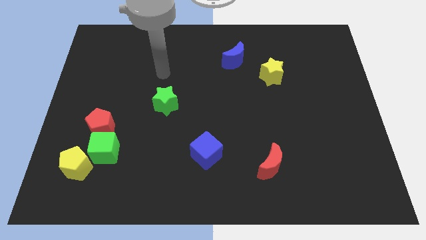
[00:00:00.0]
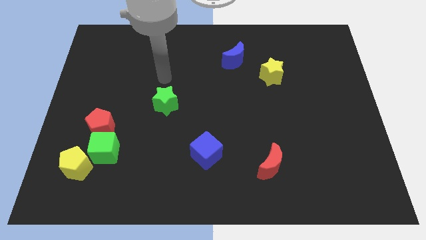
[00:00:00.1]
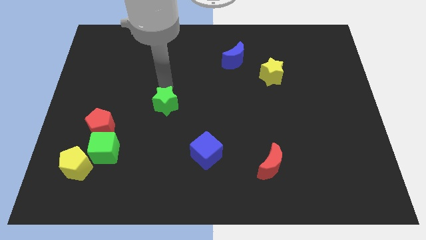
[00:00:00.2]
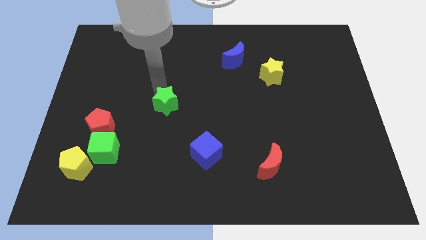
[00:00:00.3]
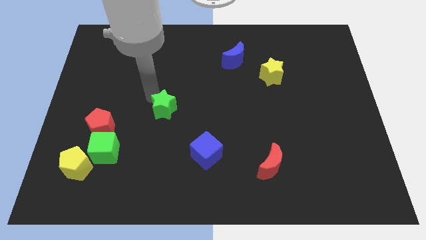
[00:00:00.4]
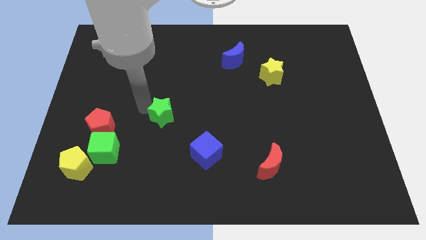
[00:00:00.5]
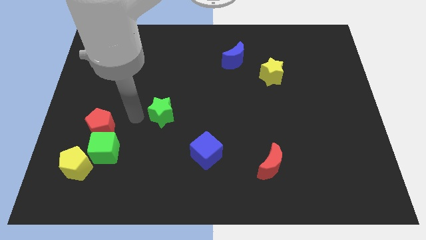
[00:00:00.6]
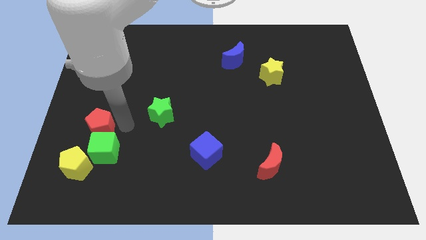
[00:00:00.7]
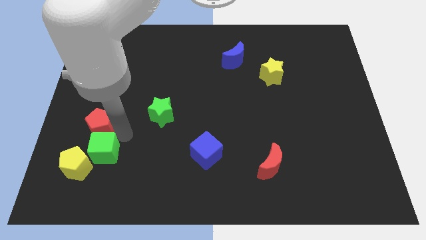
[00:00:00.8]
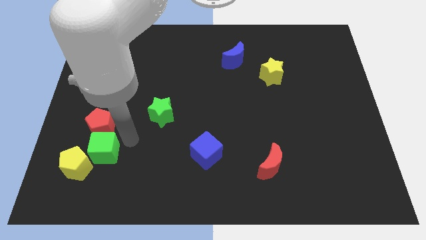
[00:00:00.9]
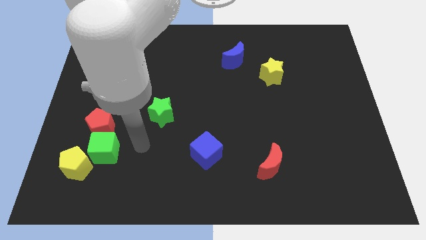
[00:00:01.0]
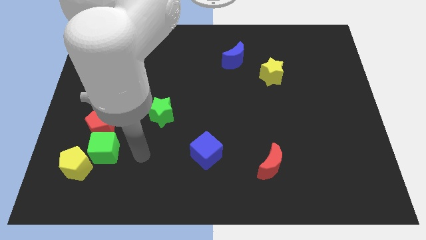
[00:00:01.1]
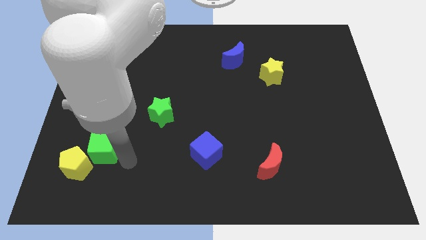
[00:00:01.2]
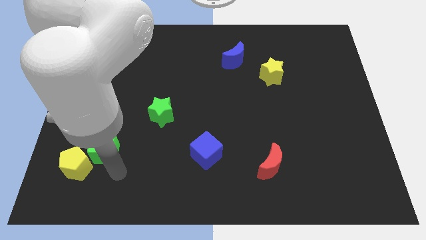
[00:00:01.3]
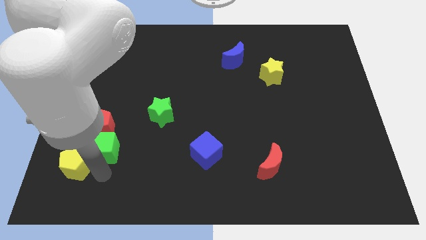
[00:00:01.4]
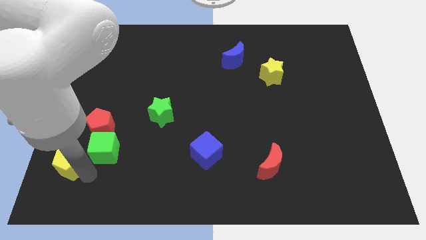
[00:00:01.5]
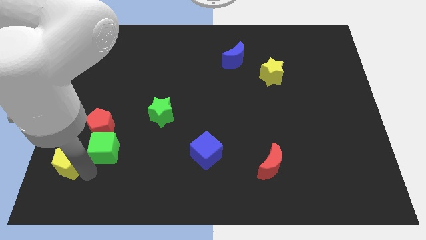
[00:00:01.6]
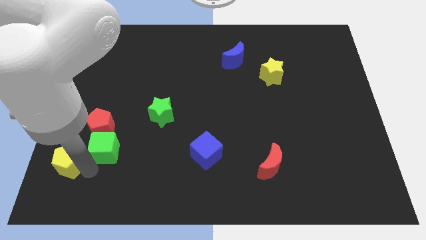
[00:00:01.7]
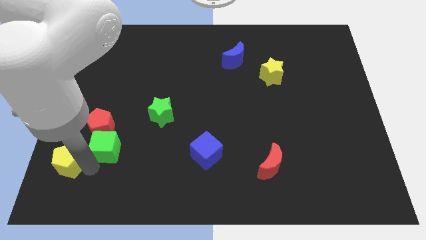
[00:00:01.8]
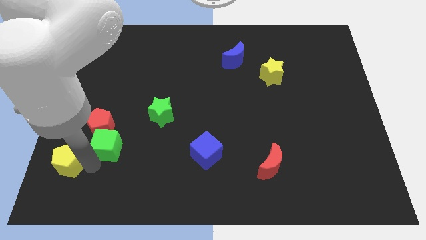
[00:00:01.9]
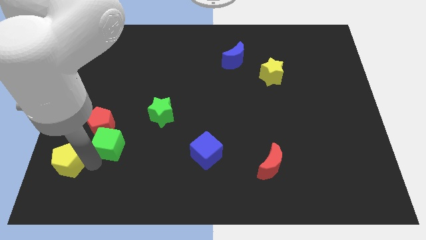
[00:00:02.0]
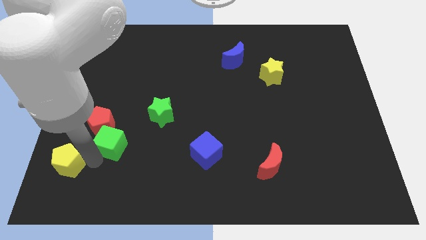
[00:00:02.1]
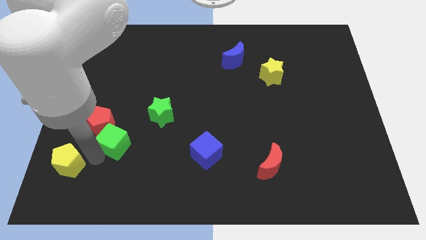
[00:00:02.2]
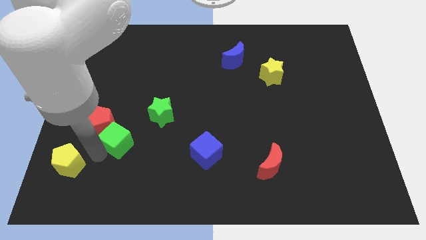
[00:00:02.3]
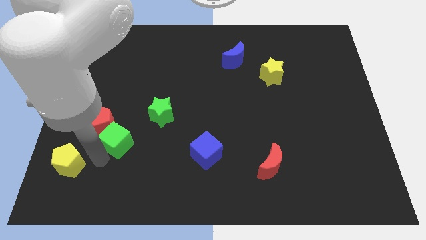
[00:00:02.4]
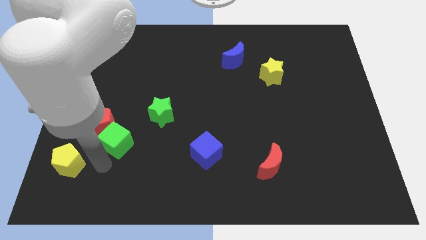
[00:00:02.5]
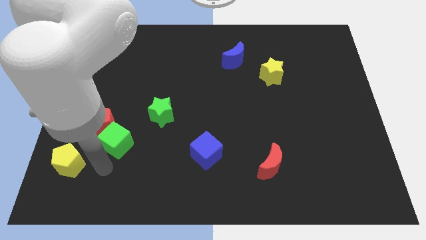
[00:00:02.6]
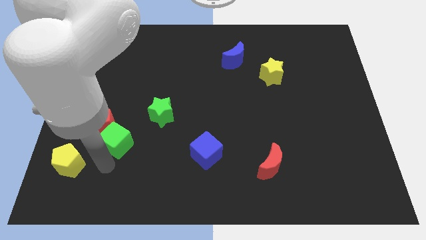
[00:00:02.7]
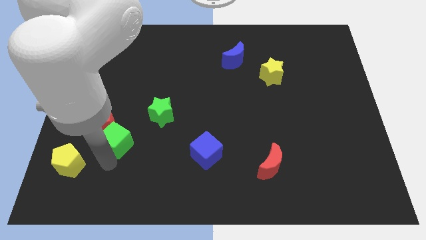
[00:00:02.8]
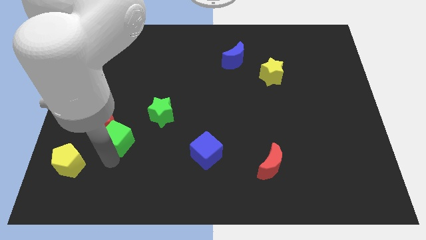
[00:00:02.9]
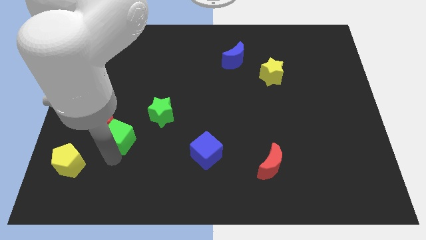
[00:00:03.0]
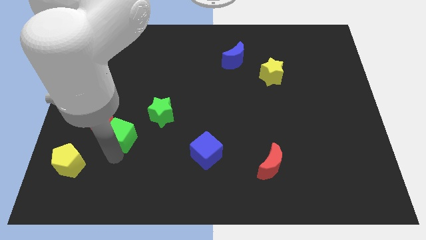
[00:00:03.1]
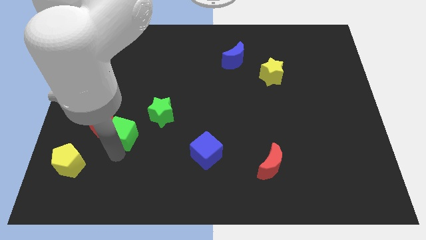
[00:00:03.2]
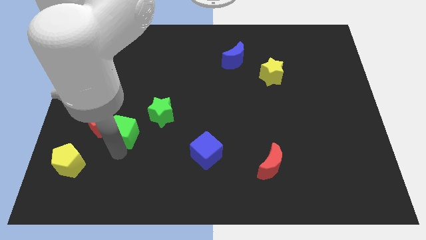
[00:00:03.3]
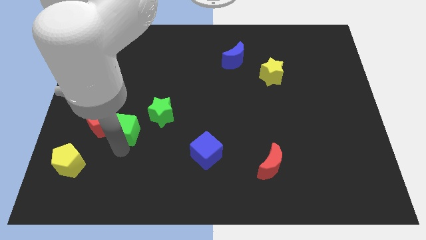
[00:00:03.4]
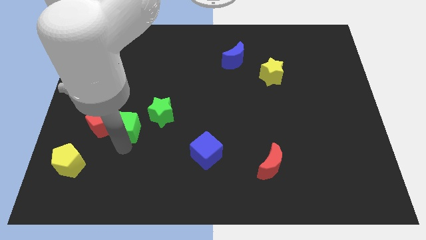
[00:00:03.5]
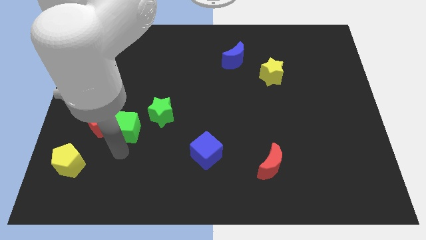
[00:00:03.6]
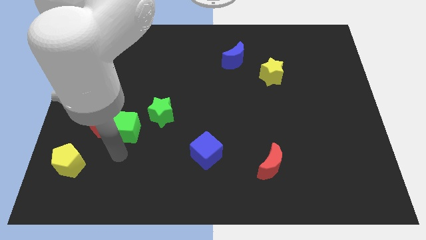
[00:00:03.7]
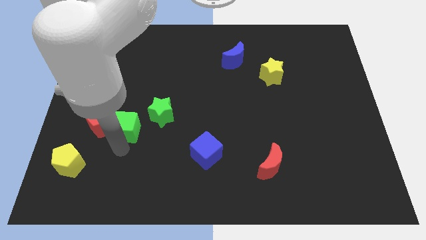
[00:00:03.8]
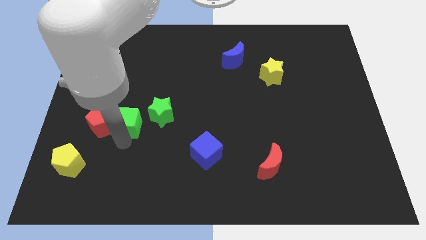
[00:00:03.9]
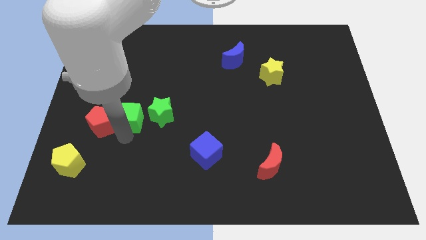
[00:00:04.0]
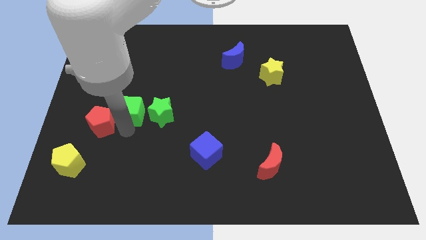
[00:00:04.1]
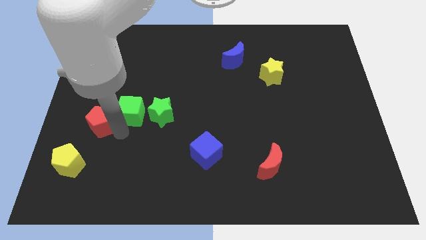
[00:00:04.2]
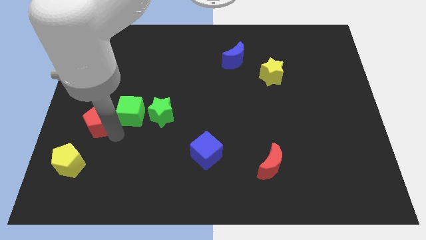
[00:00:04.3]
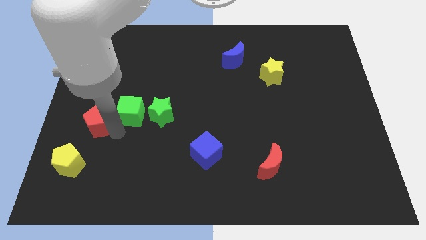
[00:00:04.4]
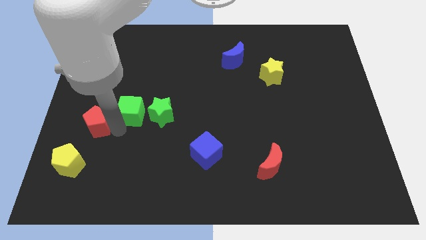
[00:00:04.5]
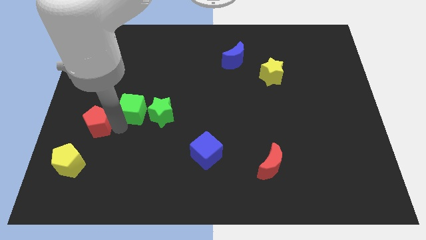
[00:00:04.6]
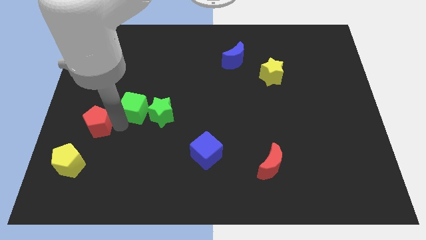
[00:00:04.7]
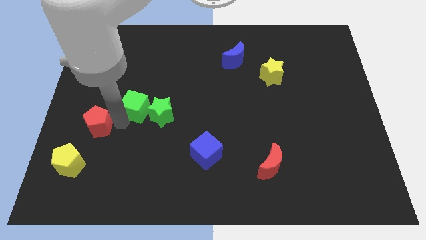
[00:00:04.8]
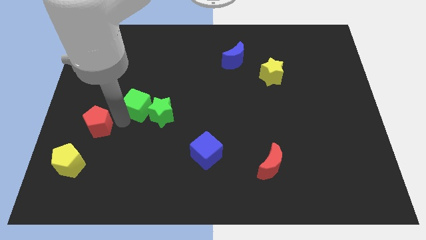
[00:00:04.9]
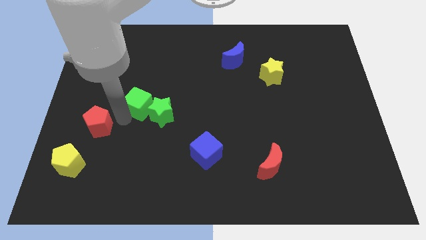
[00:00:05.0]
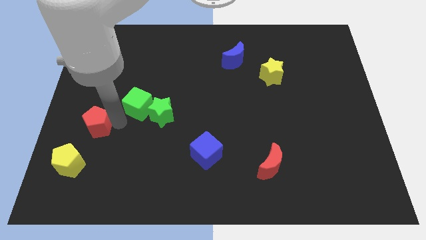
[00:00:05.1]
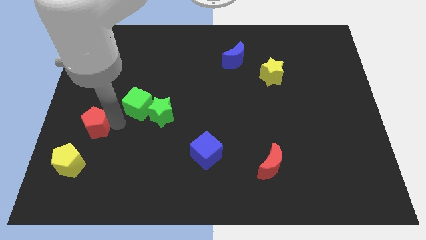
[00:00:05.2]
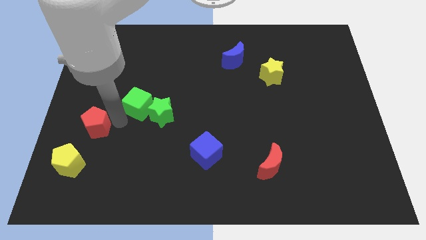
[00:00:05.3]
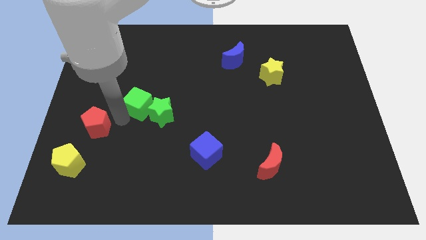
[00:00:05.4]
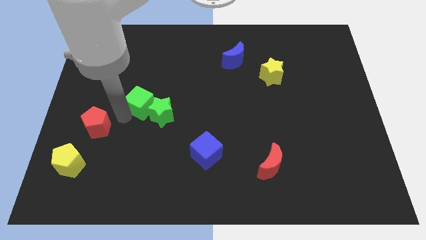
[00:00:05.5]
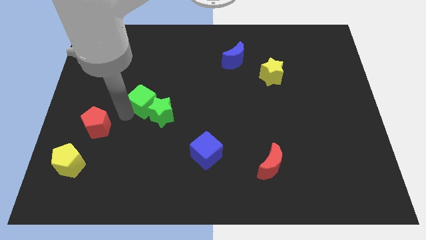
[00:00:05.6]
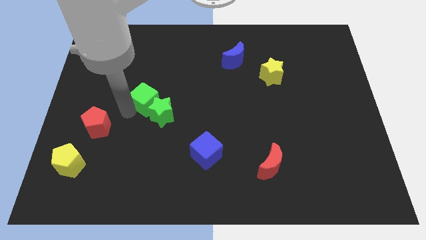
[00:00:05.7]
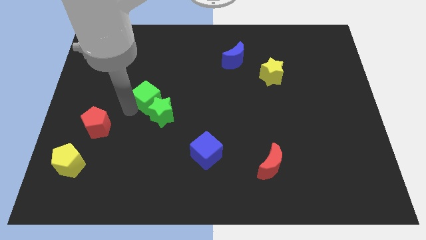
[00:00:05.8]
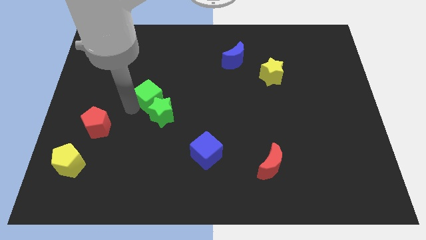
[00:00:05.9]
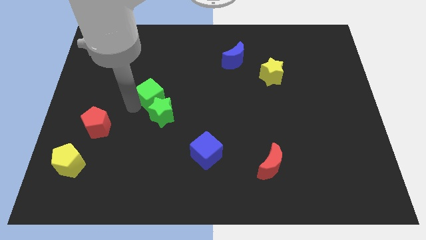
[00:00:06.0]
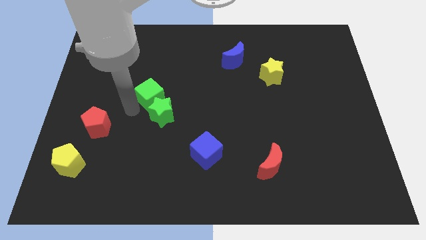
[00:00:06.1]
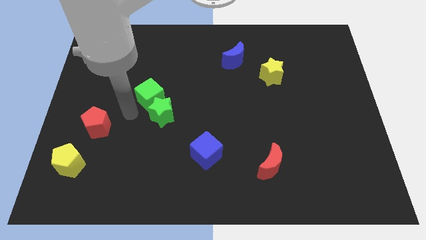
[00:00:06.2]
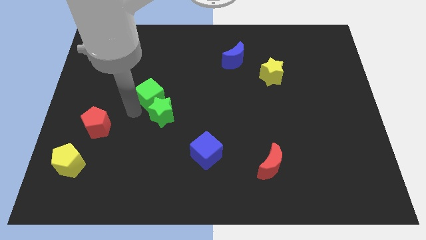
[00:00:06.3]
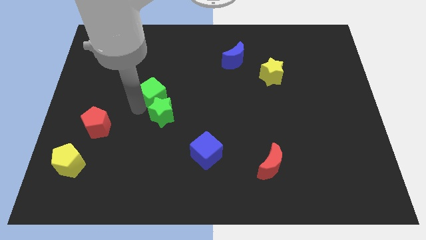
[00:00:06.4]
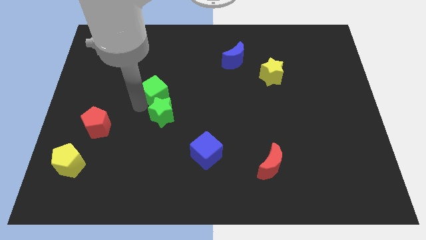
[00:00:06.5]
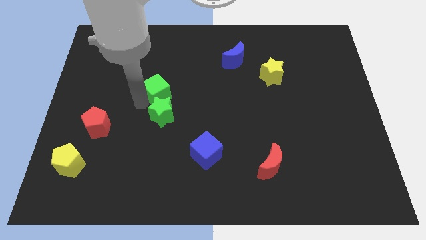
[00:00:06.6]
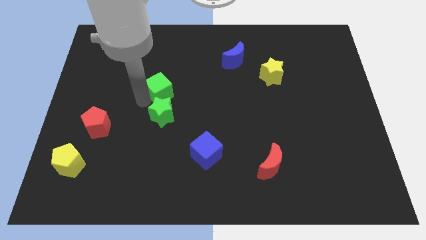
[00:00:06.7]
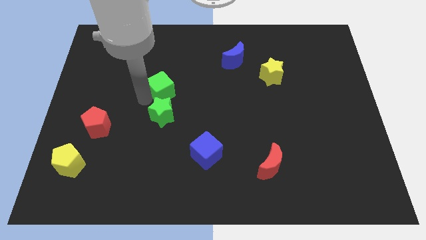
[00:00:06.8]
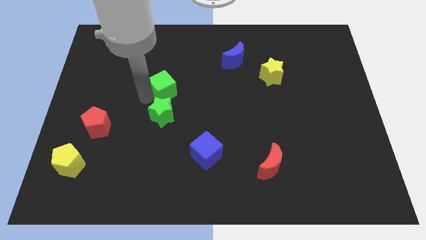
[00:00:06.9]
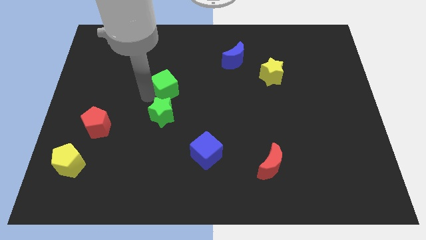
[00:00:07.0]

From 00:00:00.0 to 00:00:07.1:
push the green cube upwards and then to the right

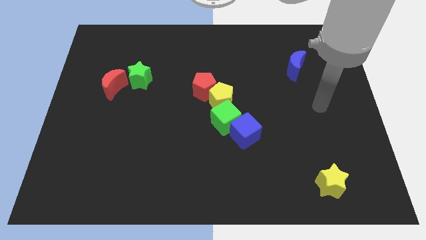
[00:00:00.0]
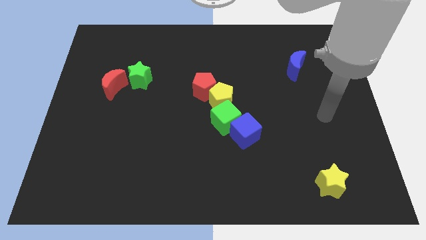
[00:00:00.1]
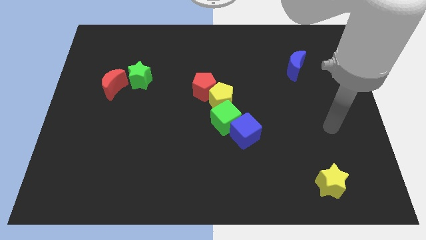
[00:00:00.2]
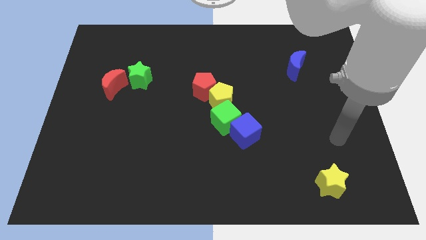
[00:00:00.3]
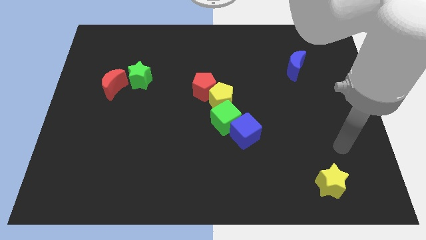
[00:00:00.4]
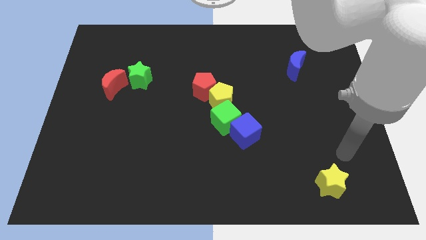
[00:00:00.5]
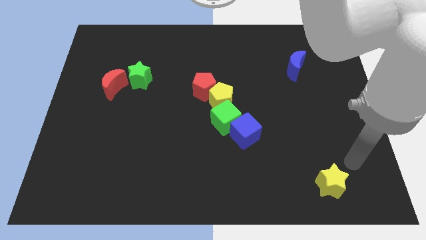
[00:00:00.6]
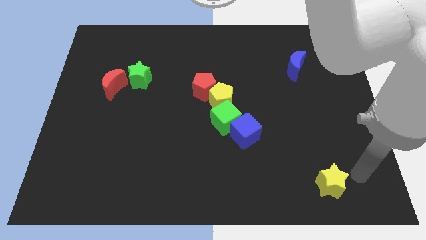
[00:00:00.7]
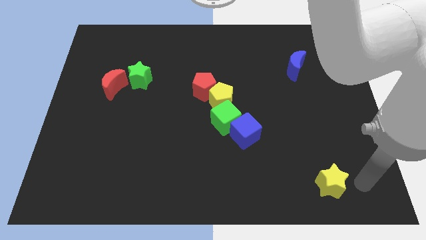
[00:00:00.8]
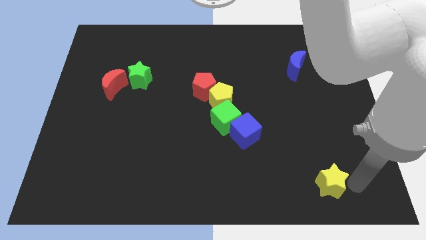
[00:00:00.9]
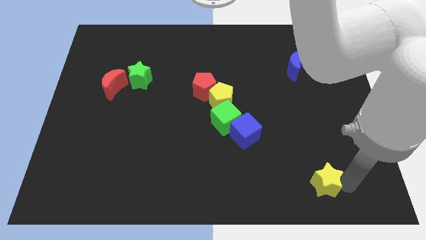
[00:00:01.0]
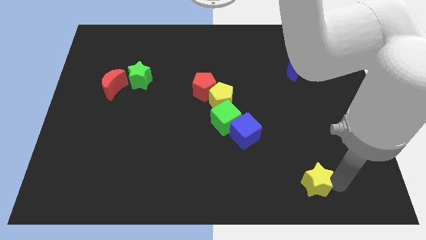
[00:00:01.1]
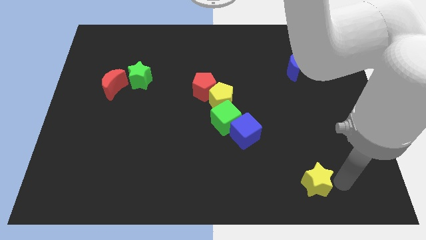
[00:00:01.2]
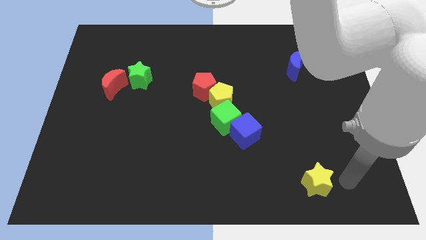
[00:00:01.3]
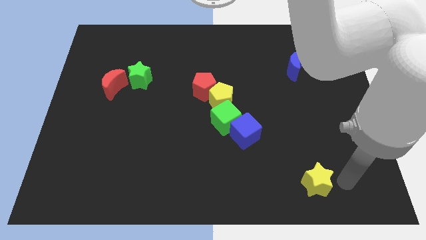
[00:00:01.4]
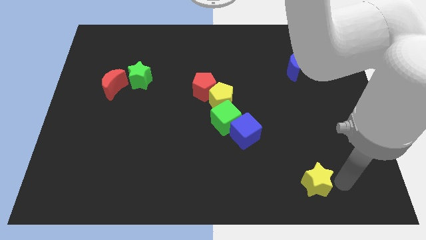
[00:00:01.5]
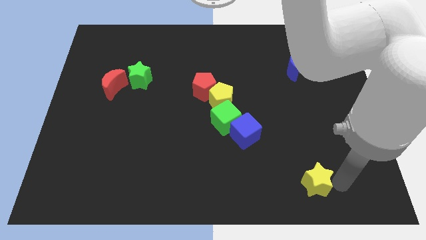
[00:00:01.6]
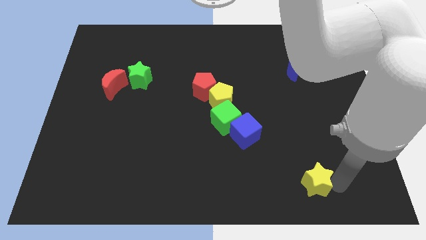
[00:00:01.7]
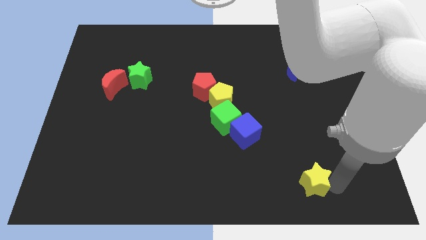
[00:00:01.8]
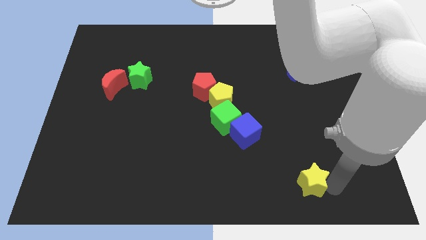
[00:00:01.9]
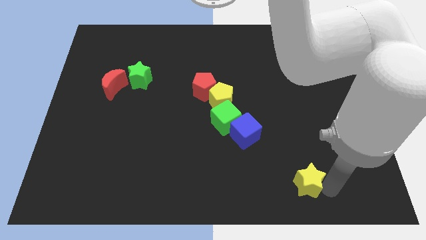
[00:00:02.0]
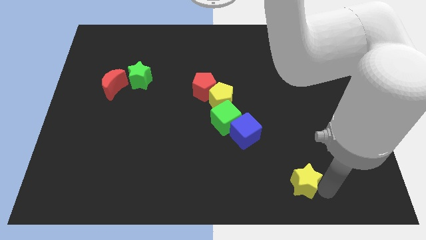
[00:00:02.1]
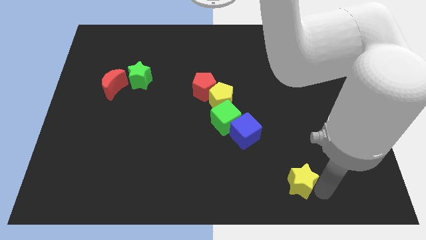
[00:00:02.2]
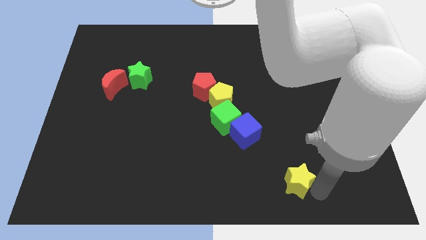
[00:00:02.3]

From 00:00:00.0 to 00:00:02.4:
push the yellow star to the left slightly
